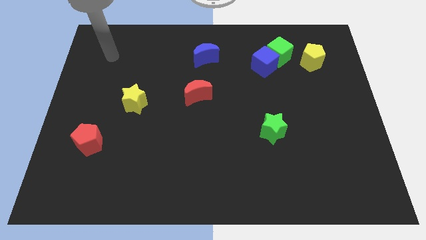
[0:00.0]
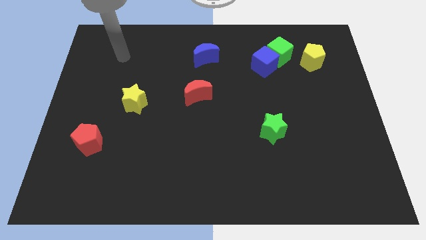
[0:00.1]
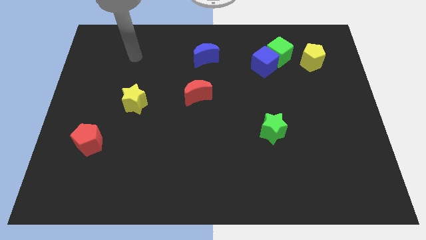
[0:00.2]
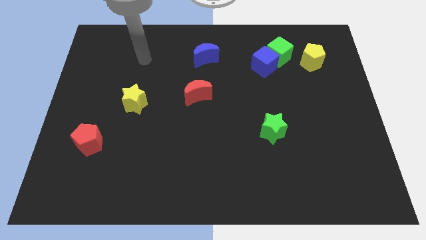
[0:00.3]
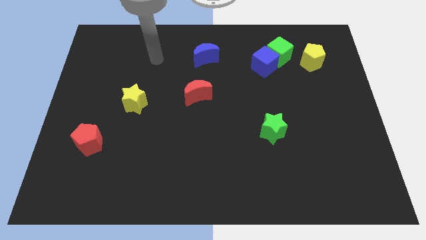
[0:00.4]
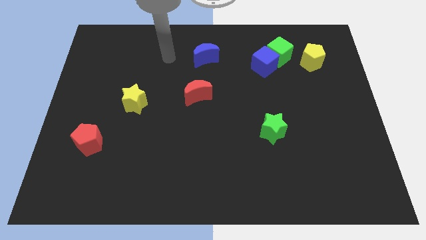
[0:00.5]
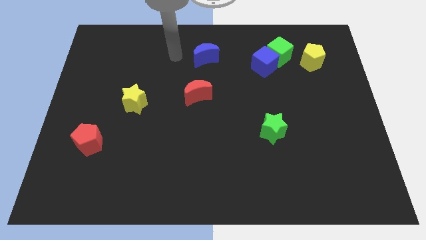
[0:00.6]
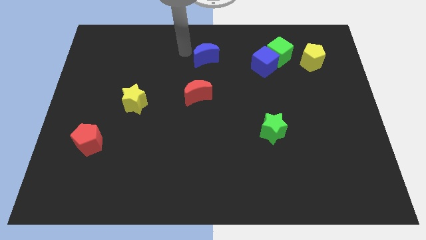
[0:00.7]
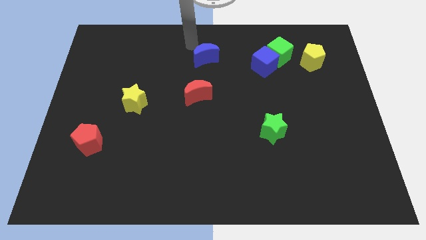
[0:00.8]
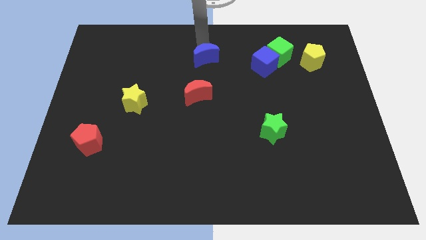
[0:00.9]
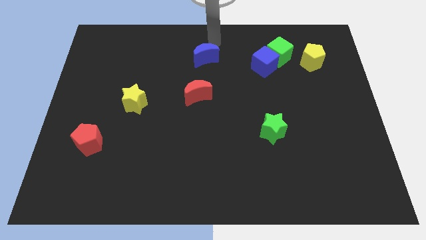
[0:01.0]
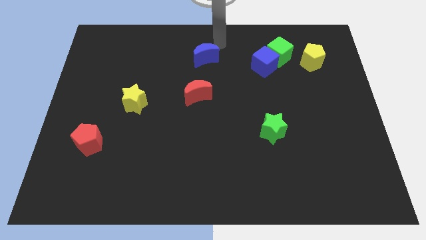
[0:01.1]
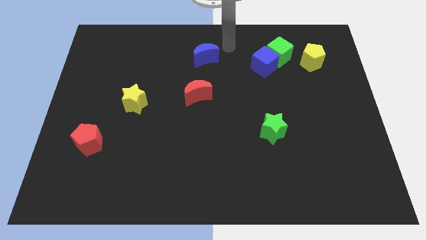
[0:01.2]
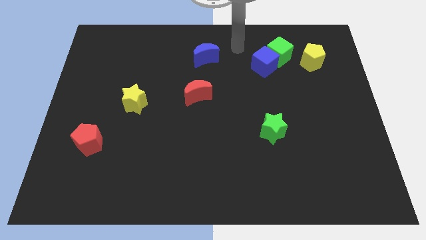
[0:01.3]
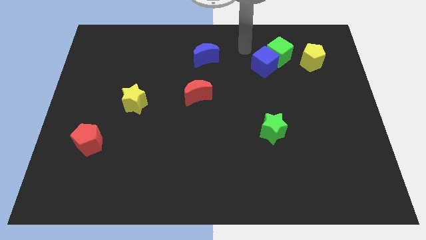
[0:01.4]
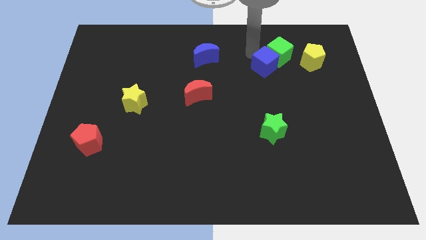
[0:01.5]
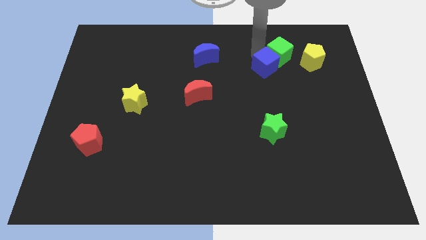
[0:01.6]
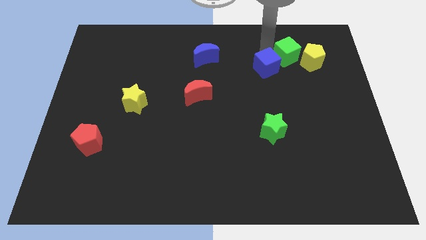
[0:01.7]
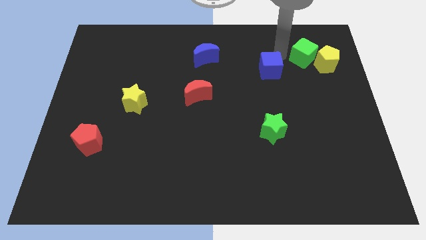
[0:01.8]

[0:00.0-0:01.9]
move the blue cube away from the green cube

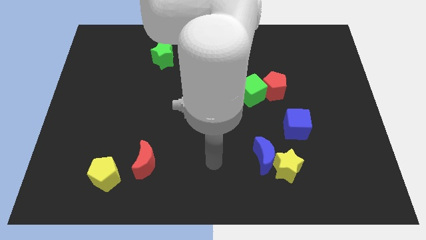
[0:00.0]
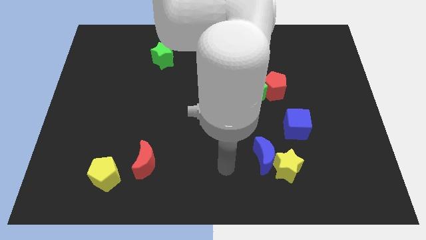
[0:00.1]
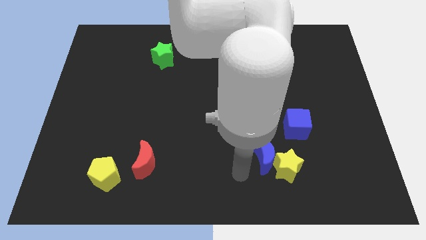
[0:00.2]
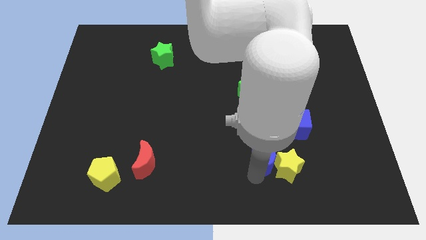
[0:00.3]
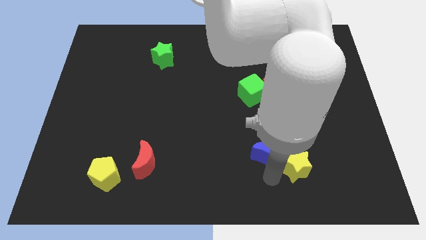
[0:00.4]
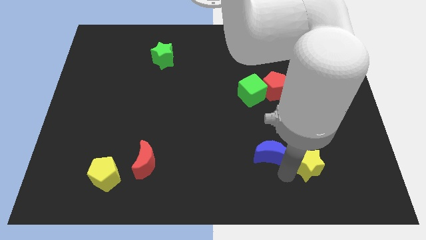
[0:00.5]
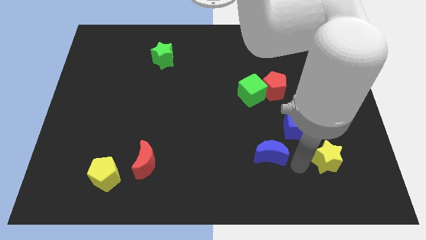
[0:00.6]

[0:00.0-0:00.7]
move the blue moon away from the yellow star

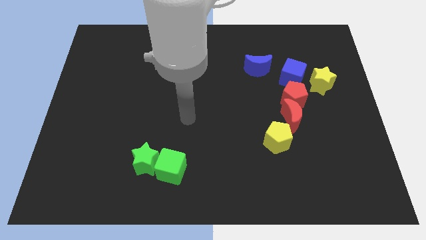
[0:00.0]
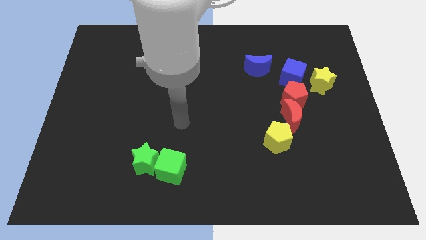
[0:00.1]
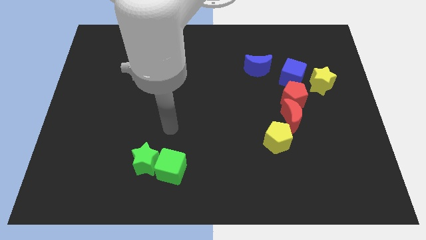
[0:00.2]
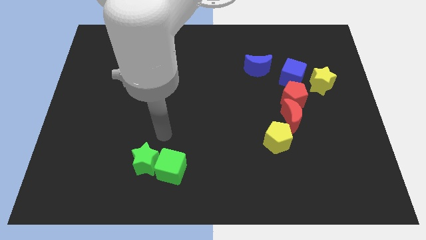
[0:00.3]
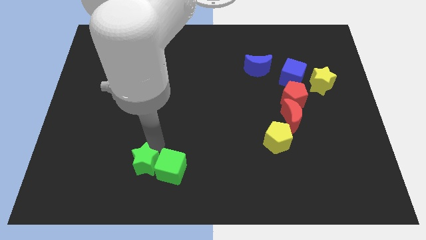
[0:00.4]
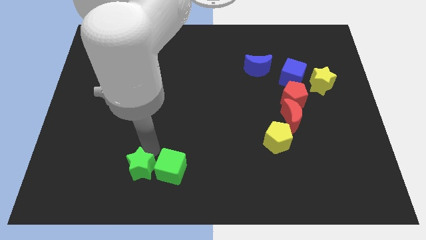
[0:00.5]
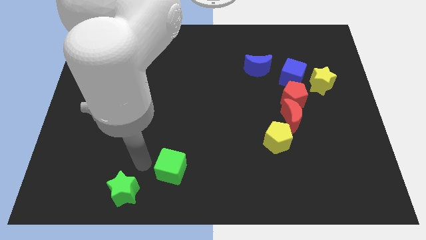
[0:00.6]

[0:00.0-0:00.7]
move the green cube away from the green star

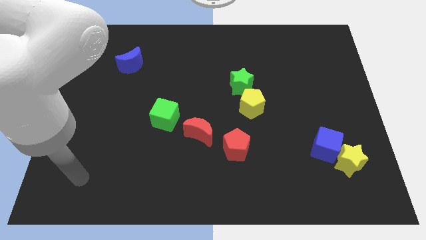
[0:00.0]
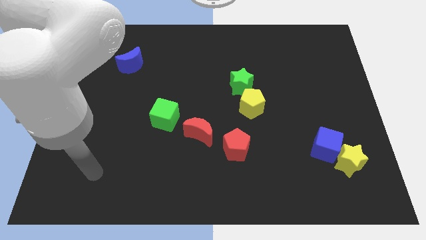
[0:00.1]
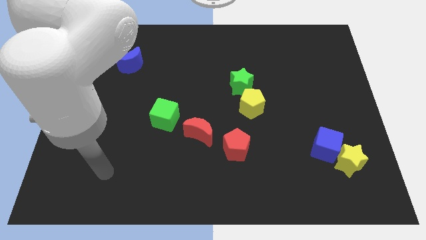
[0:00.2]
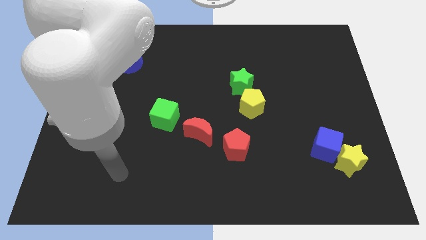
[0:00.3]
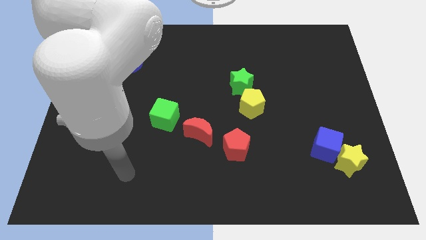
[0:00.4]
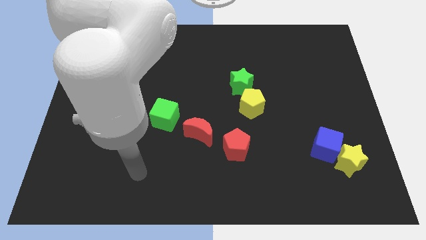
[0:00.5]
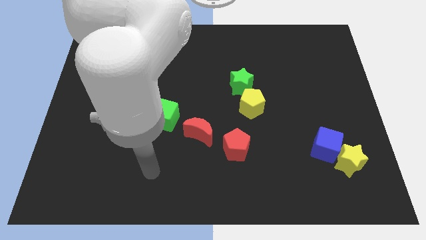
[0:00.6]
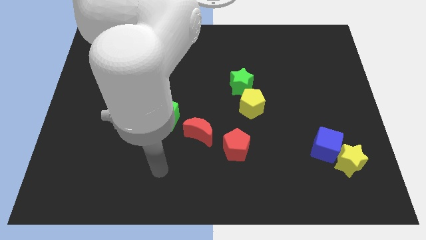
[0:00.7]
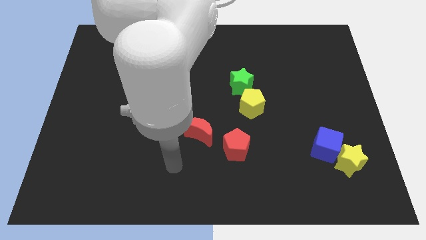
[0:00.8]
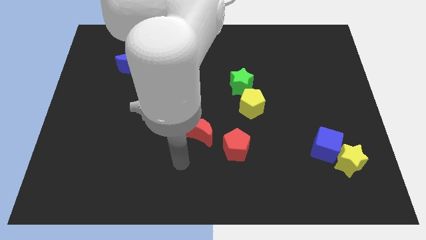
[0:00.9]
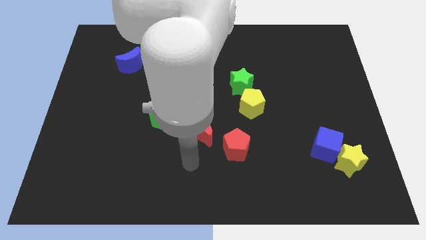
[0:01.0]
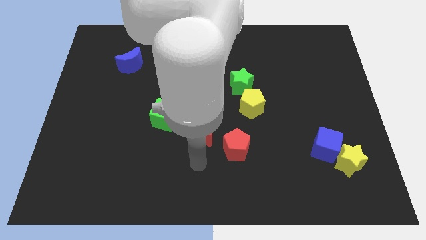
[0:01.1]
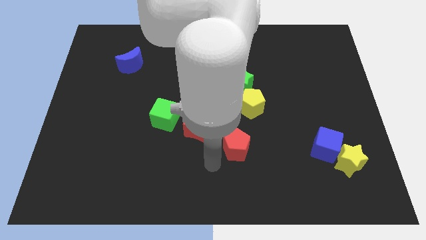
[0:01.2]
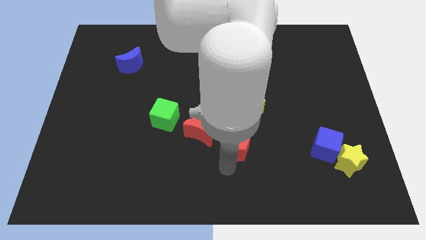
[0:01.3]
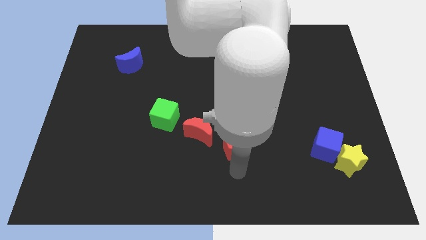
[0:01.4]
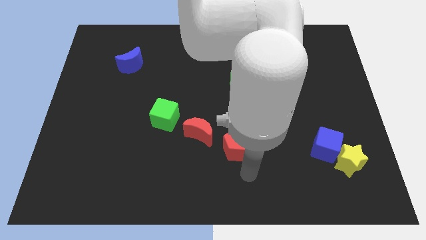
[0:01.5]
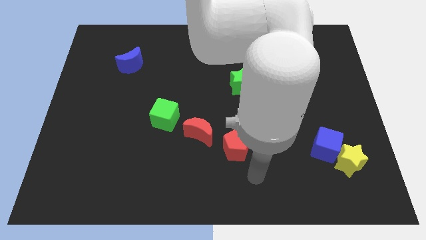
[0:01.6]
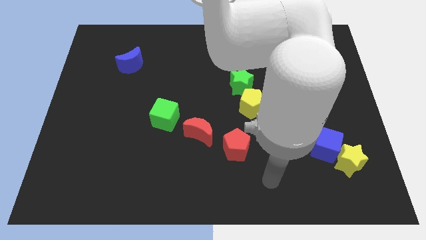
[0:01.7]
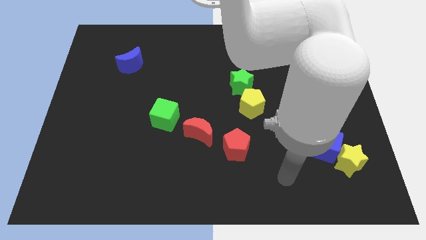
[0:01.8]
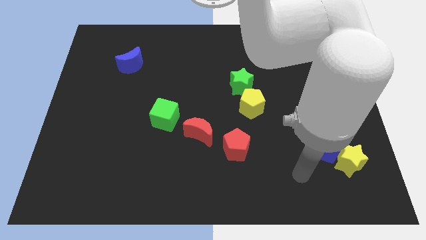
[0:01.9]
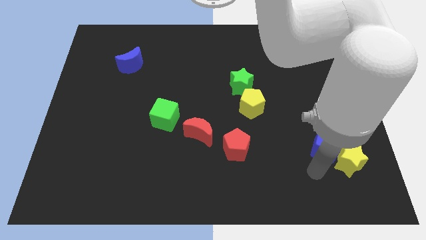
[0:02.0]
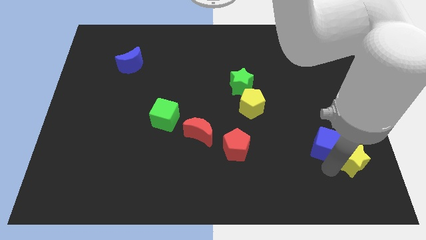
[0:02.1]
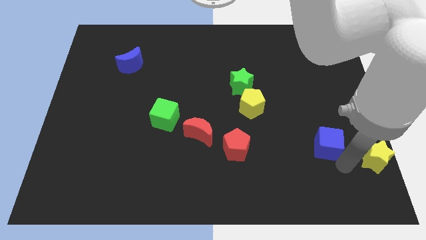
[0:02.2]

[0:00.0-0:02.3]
move the blue cube away from the yellow star

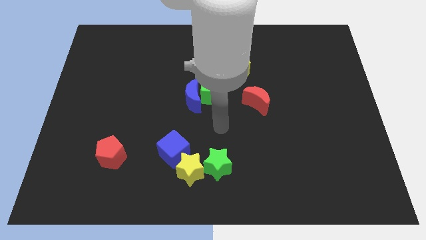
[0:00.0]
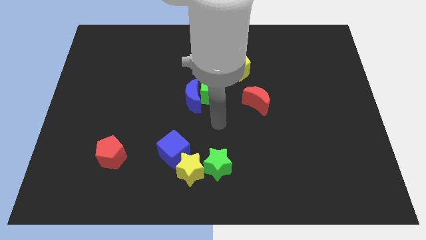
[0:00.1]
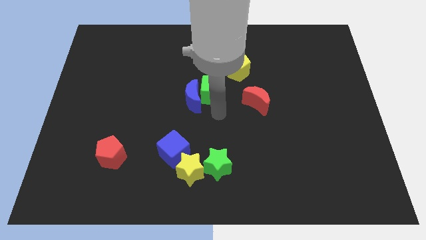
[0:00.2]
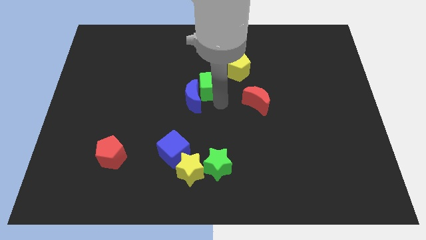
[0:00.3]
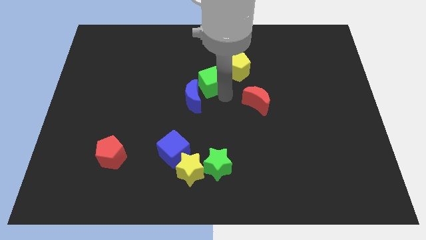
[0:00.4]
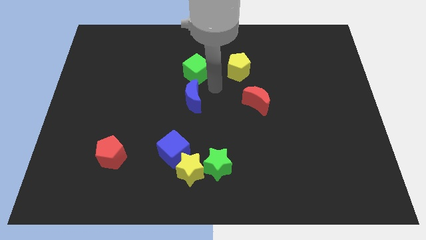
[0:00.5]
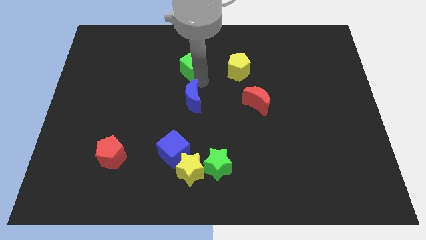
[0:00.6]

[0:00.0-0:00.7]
separate the blue moon from the green cube

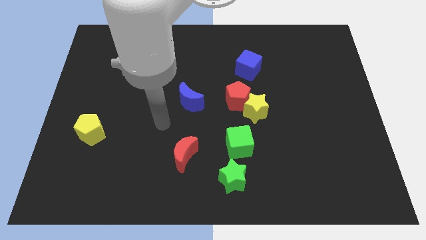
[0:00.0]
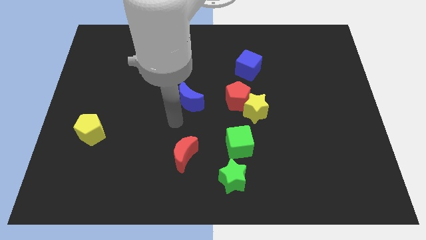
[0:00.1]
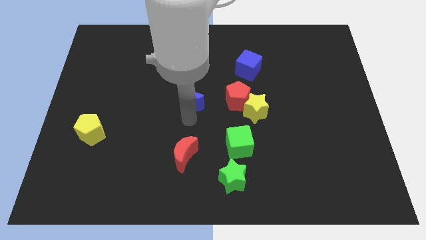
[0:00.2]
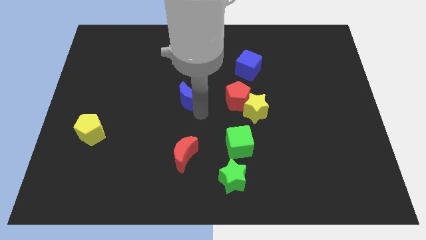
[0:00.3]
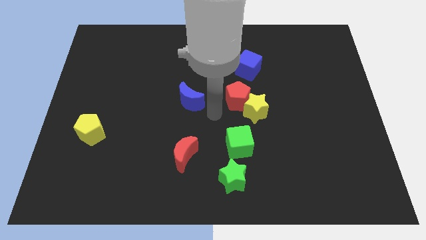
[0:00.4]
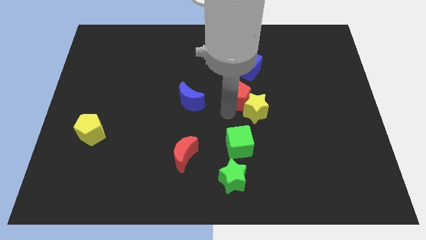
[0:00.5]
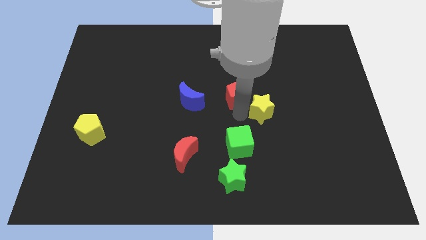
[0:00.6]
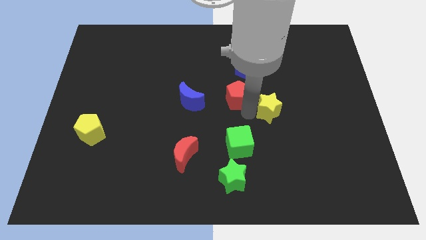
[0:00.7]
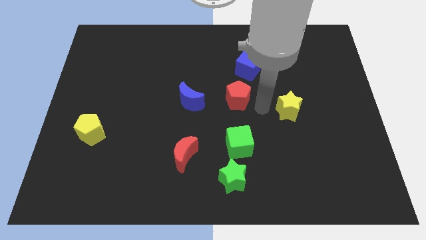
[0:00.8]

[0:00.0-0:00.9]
separate the red pentagon from the yellow star

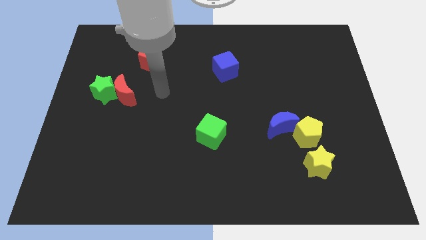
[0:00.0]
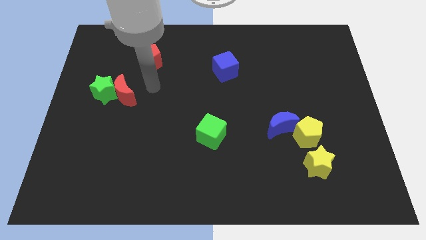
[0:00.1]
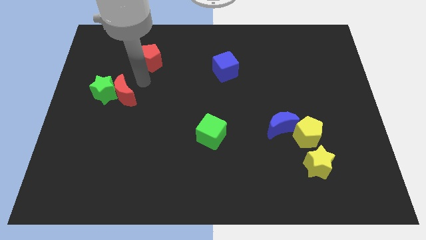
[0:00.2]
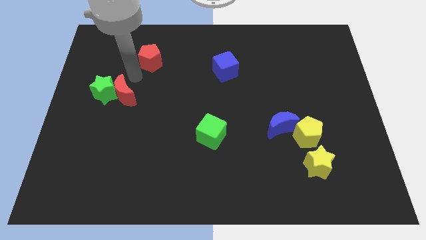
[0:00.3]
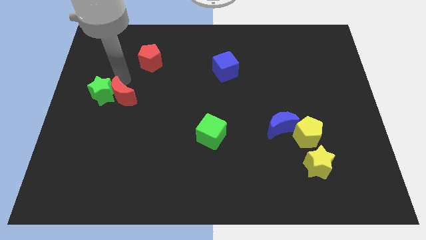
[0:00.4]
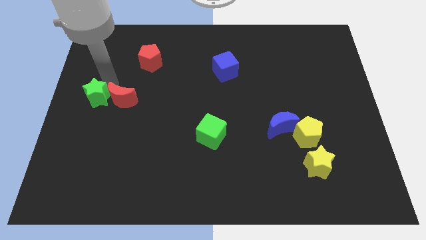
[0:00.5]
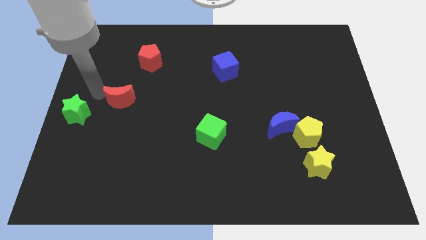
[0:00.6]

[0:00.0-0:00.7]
move the red moon away from the green star

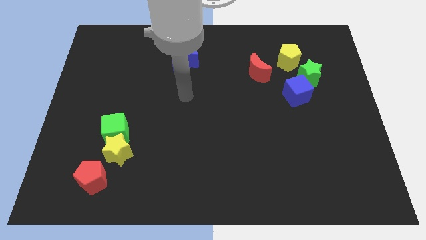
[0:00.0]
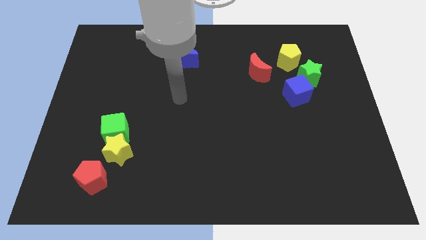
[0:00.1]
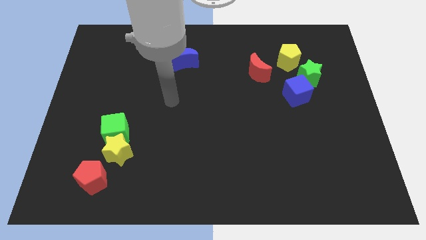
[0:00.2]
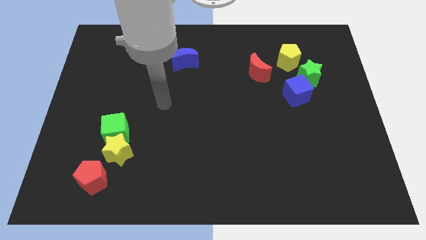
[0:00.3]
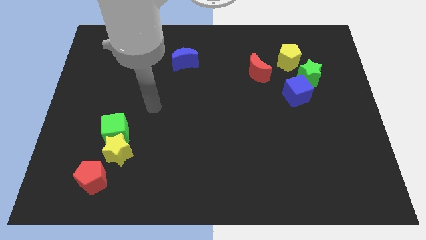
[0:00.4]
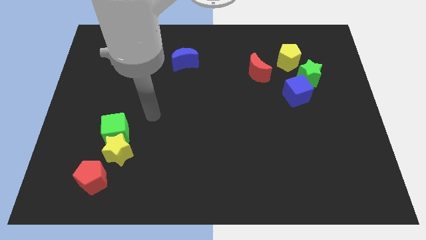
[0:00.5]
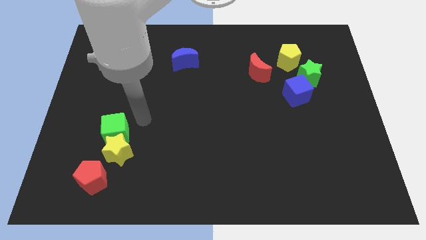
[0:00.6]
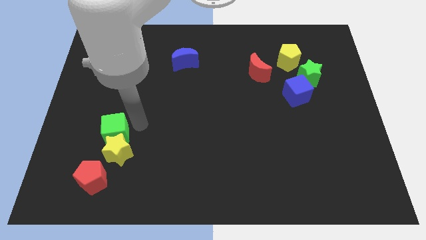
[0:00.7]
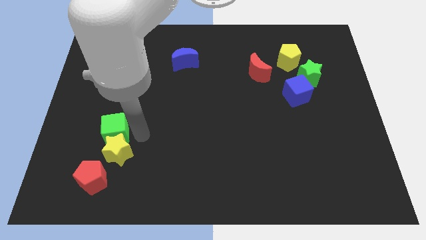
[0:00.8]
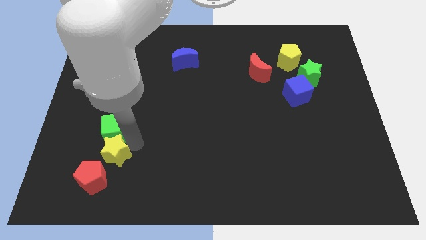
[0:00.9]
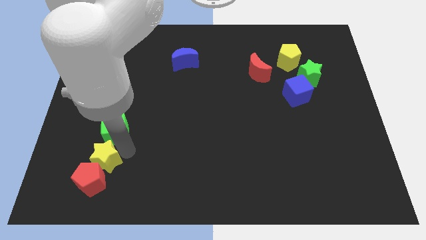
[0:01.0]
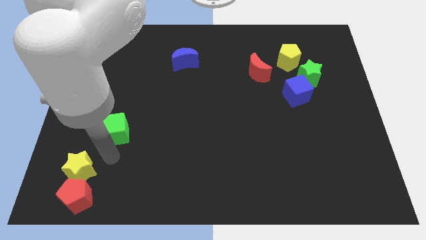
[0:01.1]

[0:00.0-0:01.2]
pull the green cube apart from the yellow star

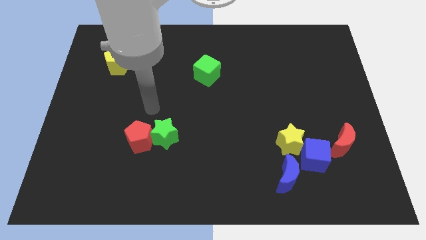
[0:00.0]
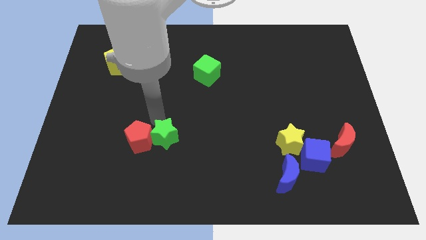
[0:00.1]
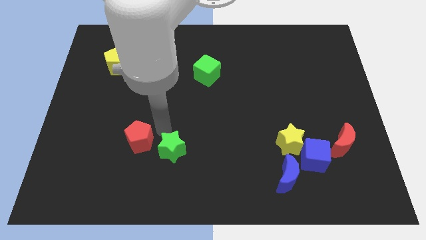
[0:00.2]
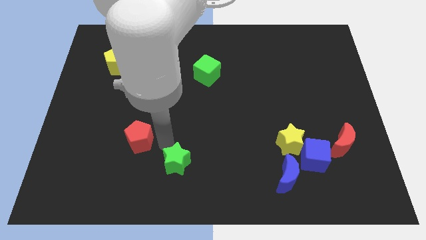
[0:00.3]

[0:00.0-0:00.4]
pull the red pentagon apart from the green star
